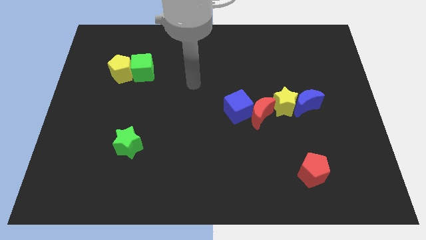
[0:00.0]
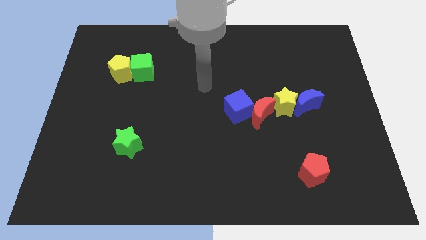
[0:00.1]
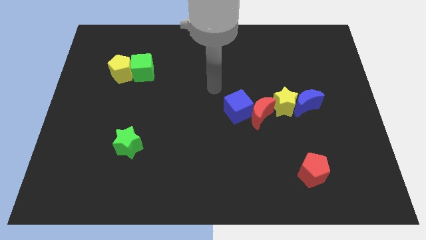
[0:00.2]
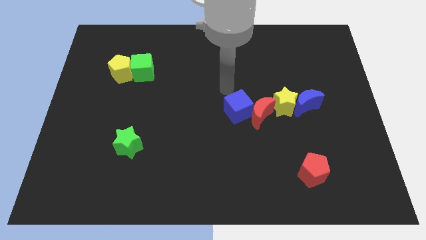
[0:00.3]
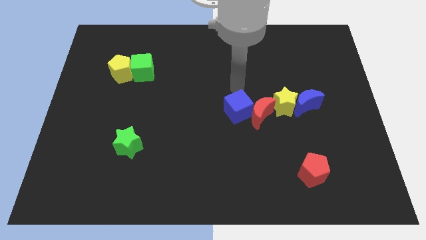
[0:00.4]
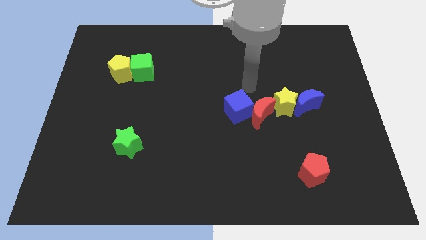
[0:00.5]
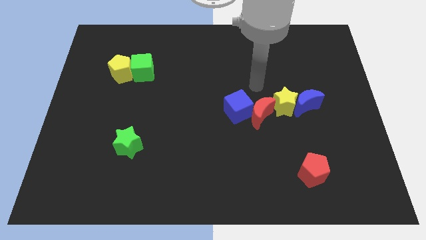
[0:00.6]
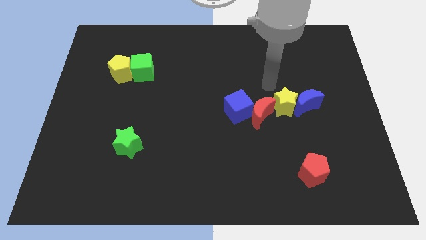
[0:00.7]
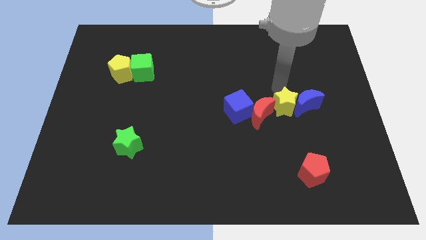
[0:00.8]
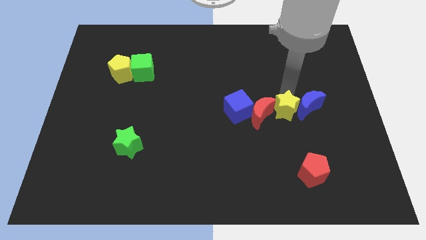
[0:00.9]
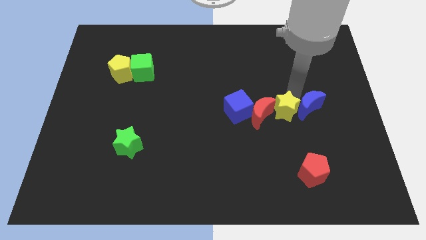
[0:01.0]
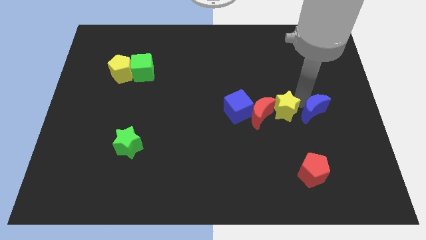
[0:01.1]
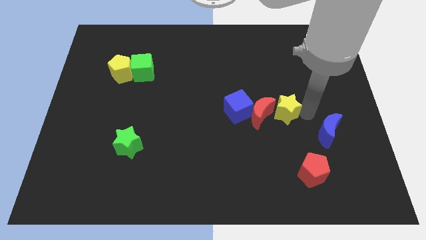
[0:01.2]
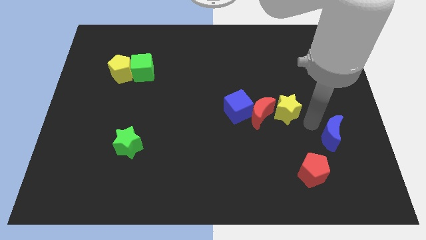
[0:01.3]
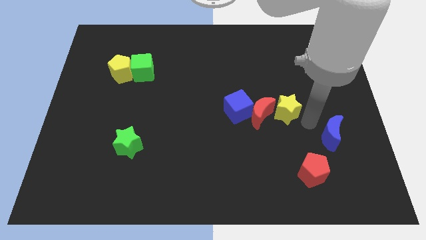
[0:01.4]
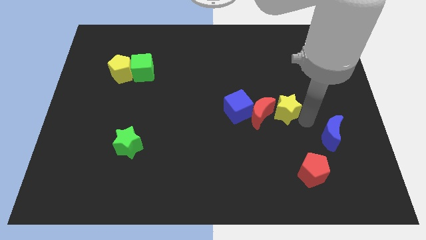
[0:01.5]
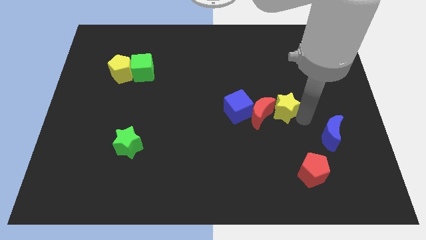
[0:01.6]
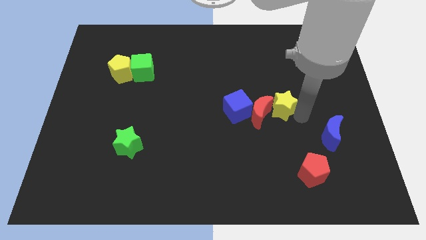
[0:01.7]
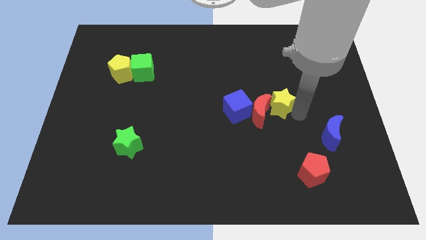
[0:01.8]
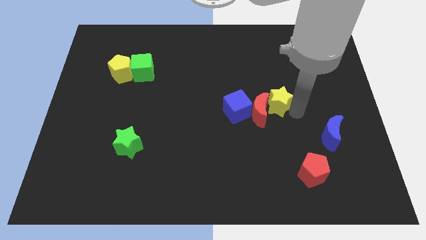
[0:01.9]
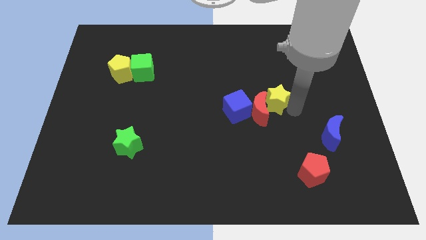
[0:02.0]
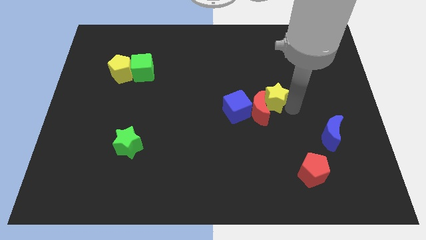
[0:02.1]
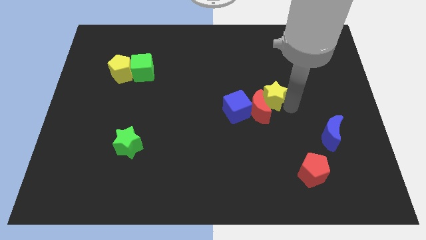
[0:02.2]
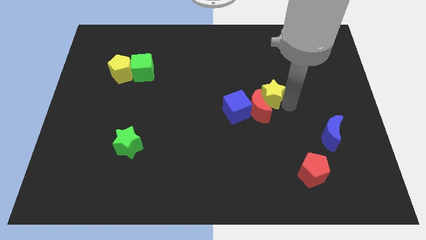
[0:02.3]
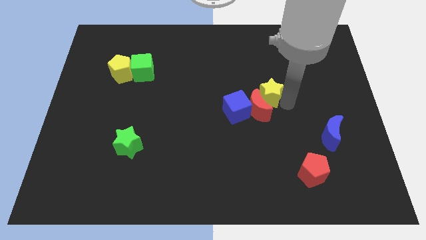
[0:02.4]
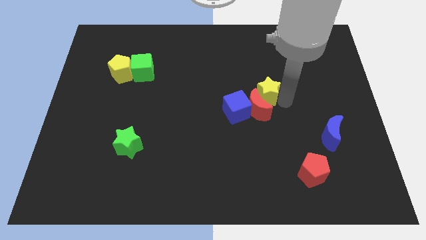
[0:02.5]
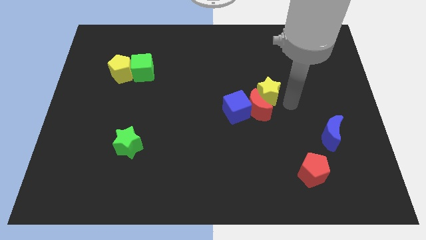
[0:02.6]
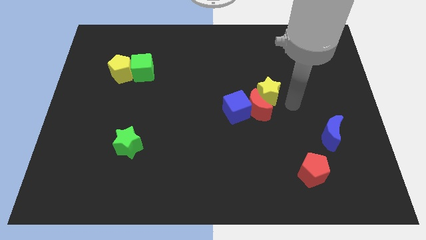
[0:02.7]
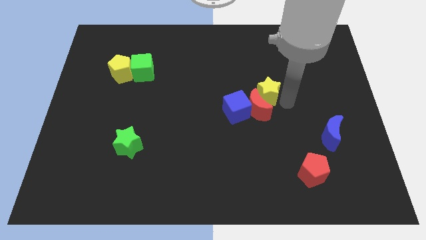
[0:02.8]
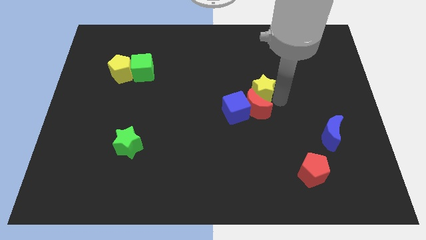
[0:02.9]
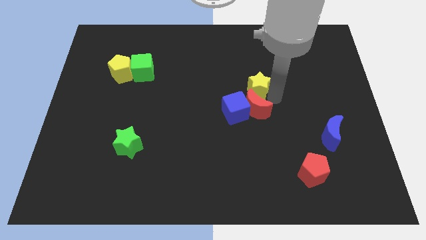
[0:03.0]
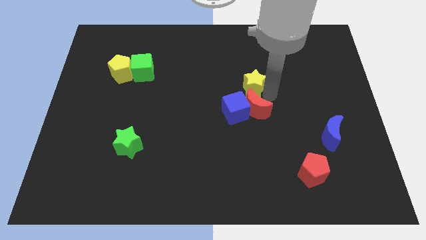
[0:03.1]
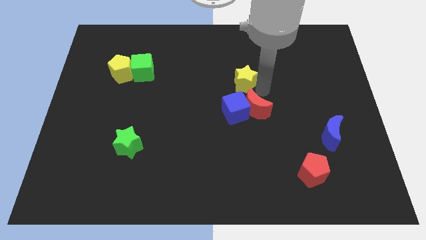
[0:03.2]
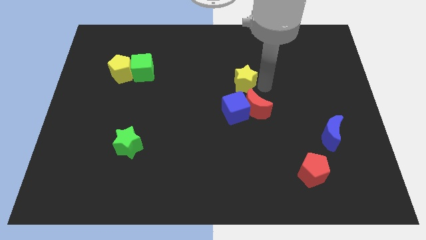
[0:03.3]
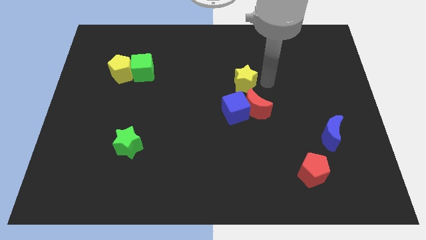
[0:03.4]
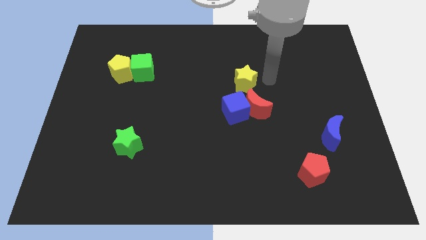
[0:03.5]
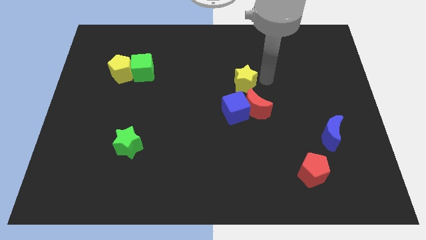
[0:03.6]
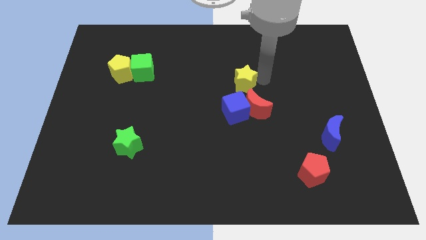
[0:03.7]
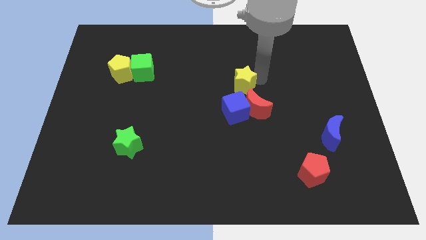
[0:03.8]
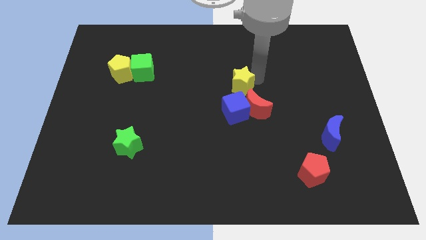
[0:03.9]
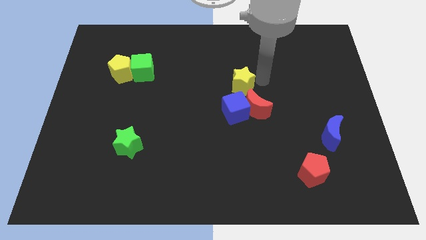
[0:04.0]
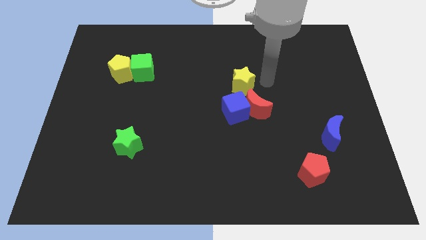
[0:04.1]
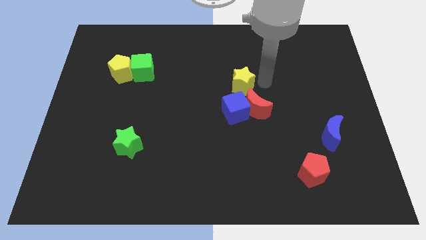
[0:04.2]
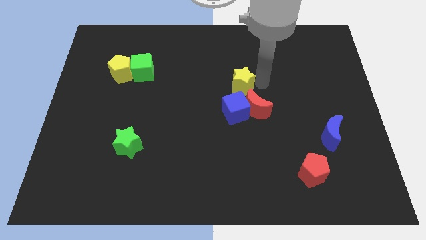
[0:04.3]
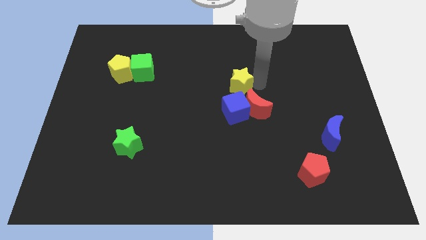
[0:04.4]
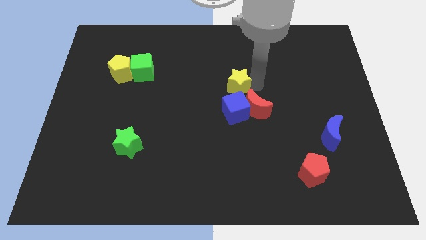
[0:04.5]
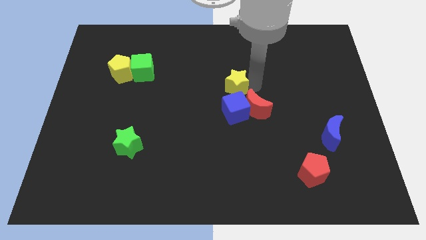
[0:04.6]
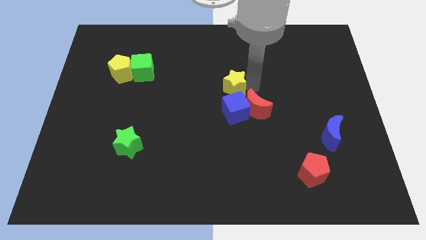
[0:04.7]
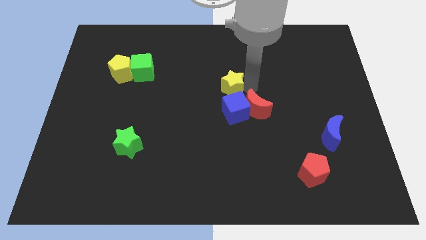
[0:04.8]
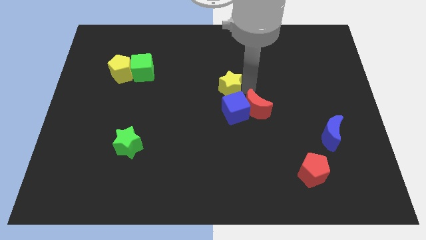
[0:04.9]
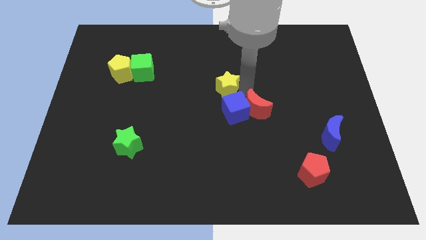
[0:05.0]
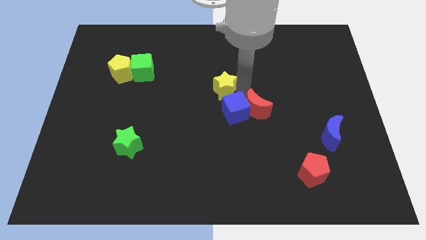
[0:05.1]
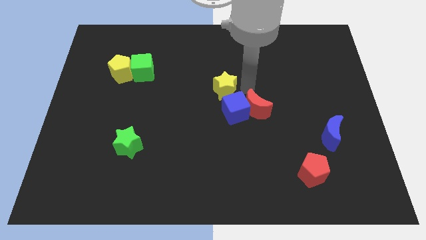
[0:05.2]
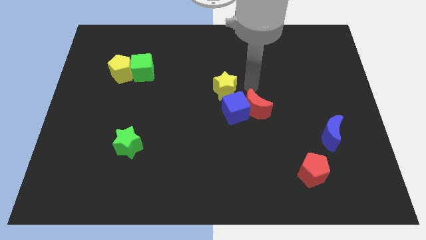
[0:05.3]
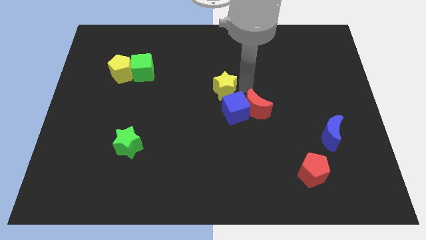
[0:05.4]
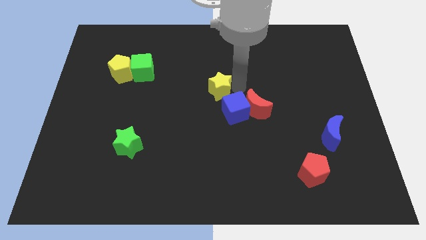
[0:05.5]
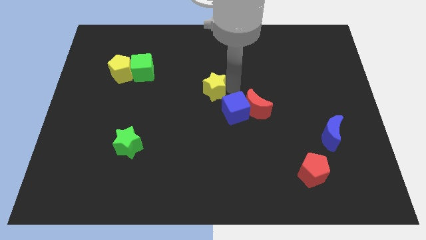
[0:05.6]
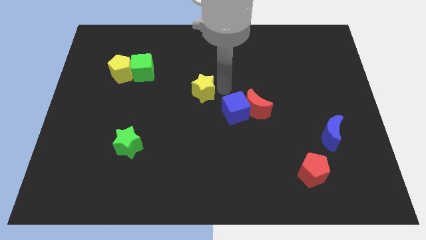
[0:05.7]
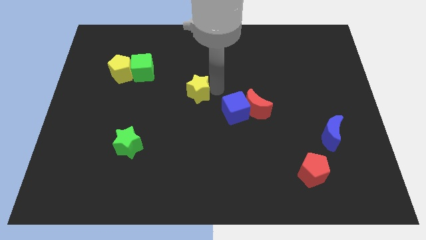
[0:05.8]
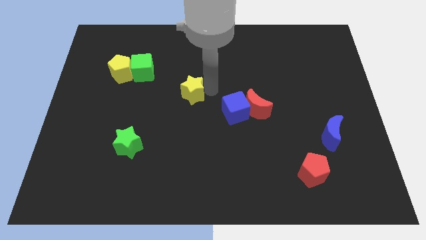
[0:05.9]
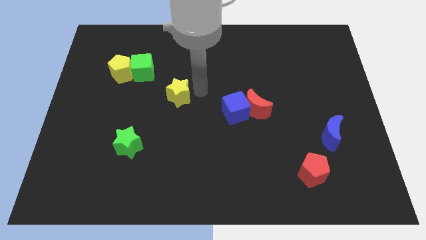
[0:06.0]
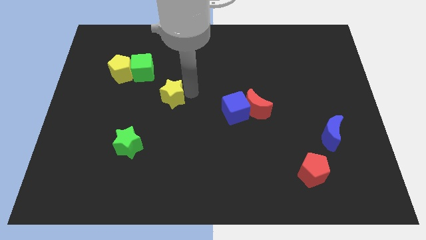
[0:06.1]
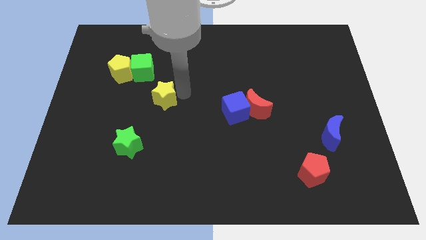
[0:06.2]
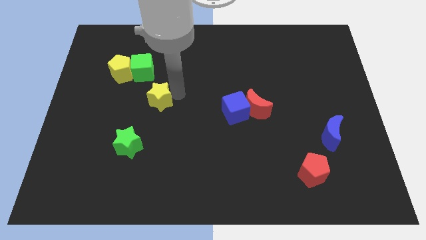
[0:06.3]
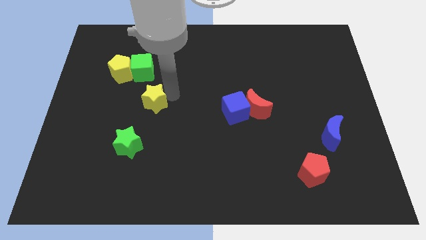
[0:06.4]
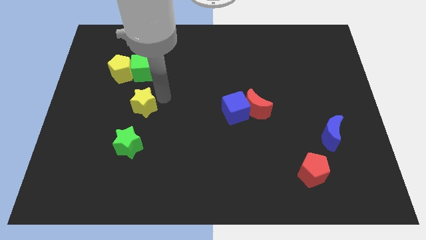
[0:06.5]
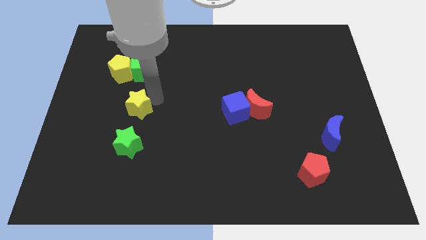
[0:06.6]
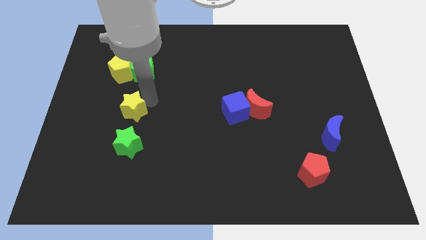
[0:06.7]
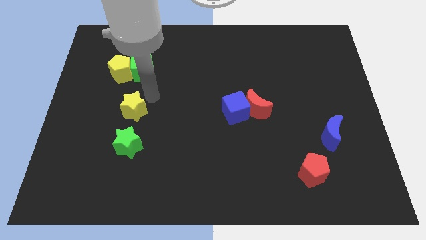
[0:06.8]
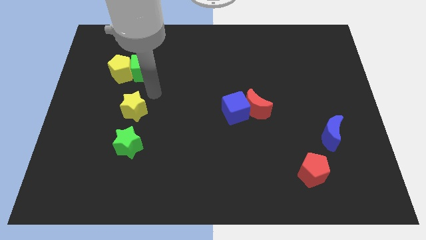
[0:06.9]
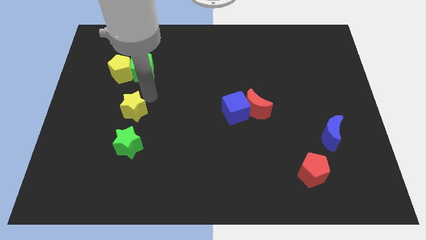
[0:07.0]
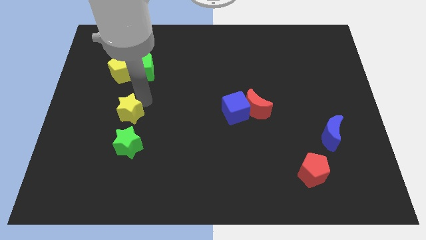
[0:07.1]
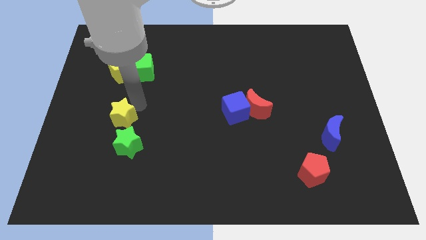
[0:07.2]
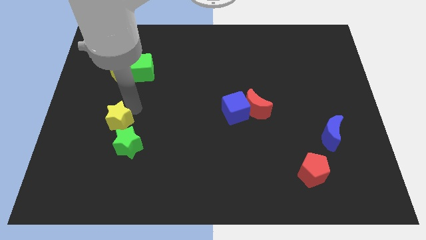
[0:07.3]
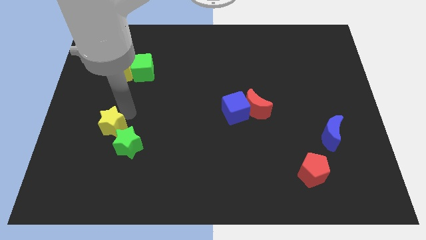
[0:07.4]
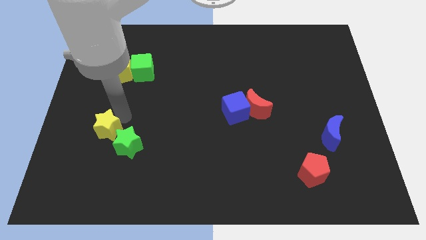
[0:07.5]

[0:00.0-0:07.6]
move the yellow star to the left side of the green star

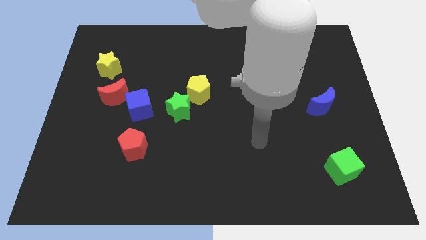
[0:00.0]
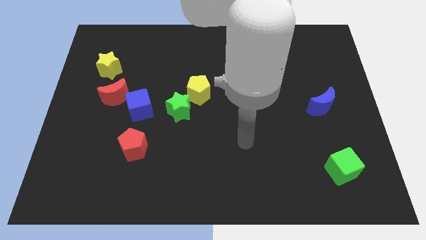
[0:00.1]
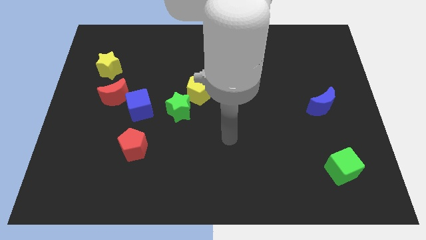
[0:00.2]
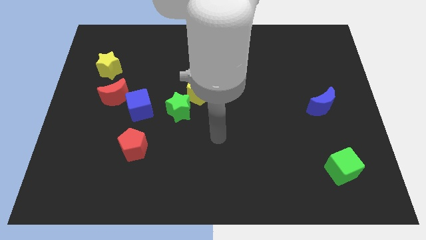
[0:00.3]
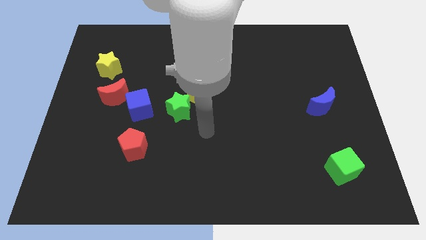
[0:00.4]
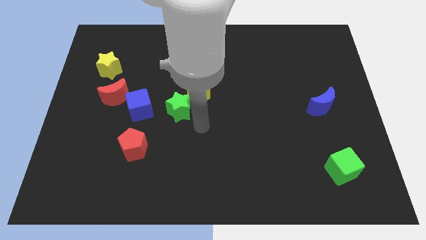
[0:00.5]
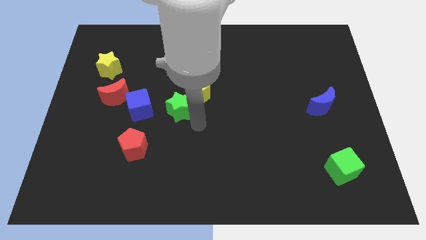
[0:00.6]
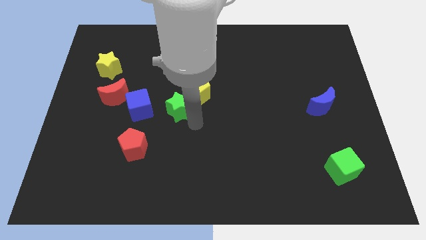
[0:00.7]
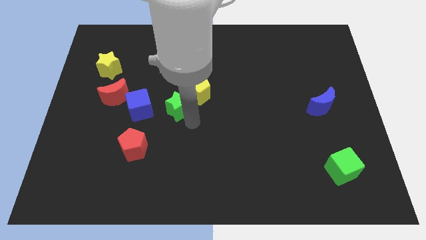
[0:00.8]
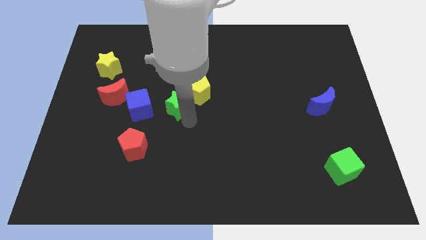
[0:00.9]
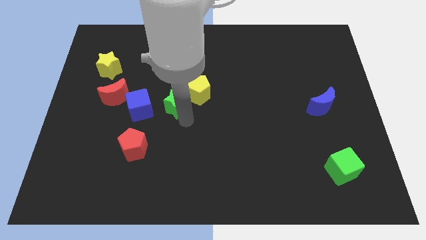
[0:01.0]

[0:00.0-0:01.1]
push the green star to the right side of the red moon
